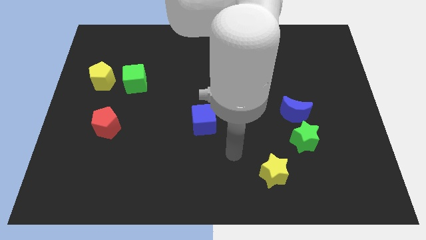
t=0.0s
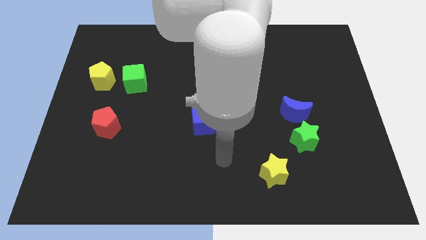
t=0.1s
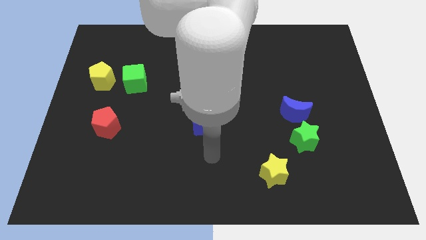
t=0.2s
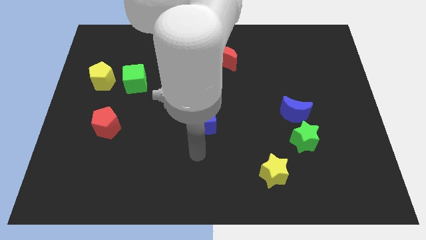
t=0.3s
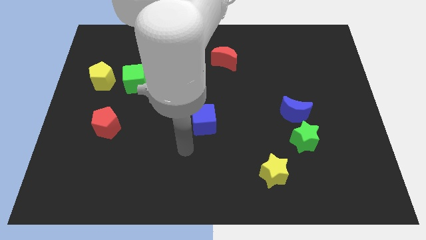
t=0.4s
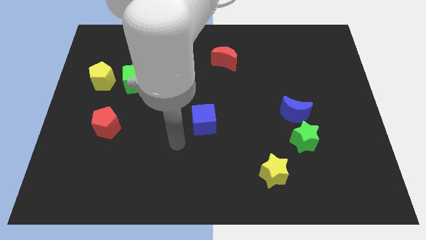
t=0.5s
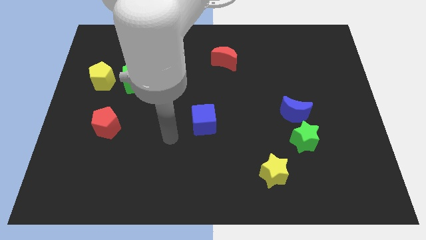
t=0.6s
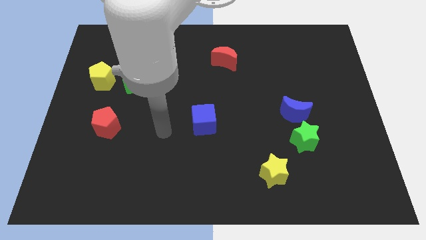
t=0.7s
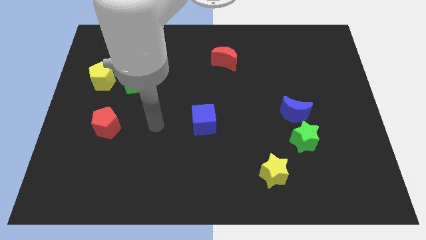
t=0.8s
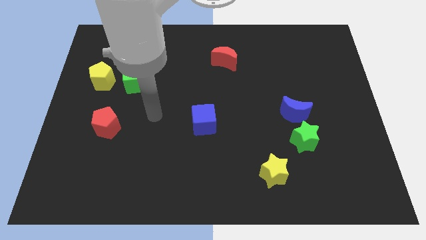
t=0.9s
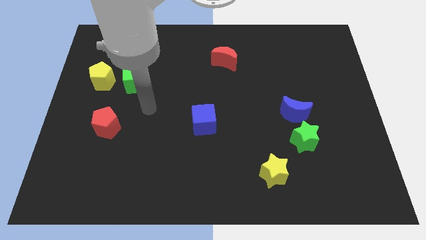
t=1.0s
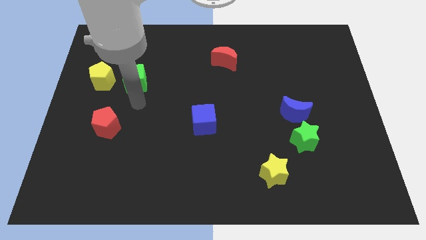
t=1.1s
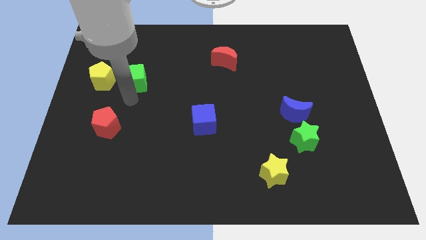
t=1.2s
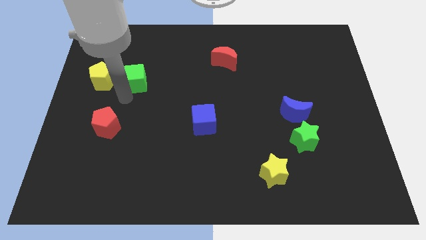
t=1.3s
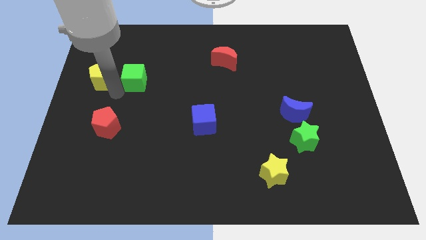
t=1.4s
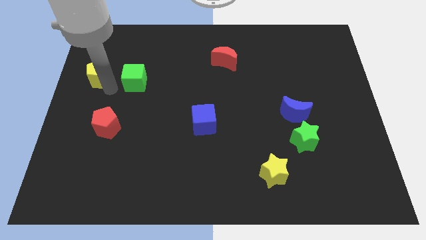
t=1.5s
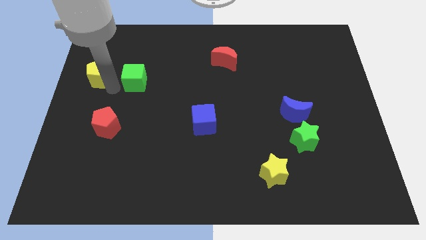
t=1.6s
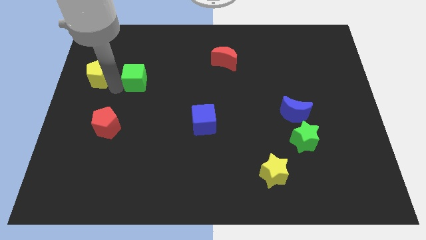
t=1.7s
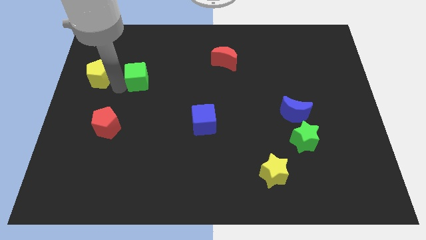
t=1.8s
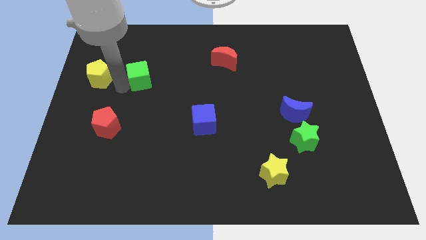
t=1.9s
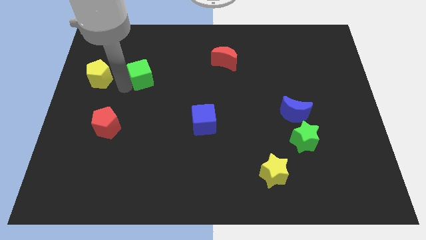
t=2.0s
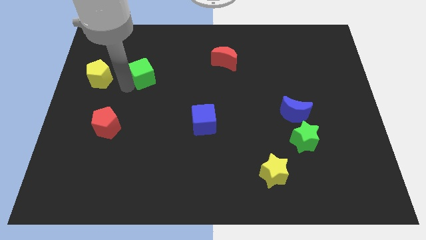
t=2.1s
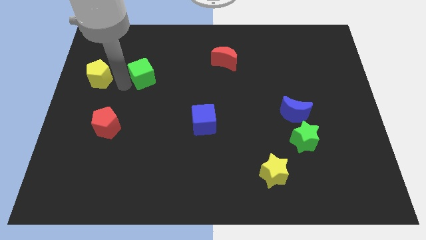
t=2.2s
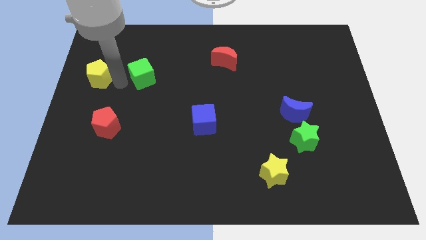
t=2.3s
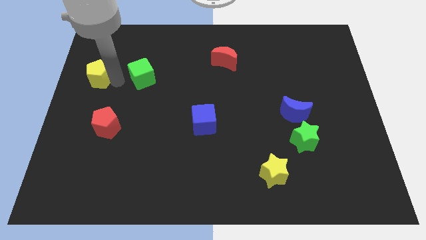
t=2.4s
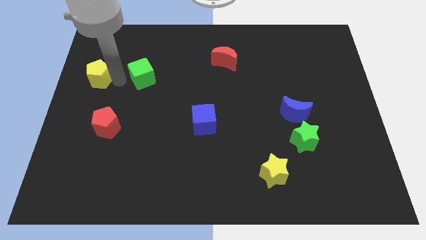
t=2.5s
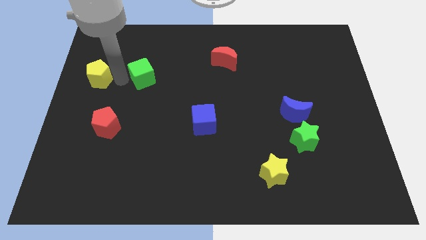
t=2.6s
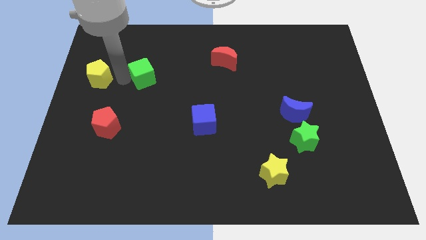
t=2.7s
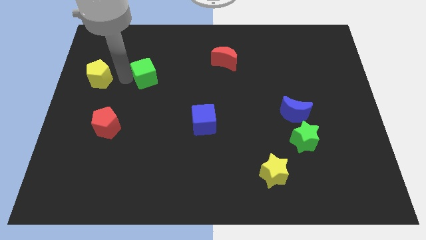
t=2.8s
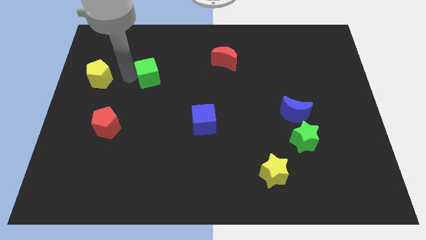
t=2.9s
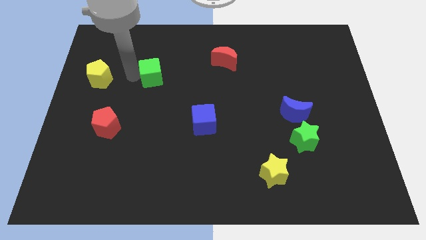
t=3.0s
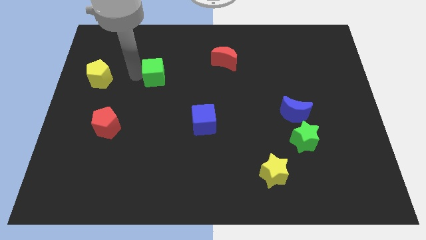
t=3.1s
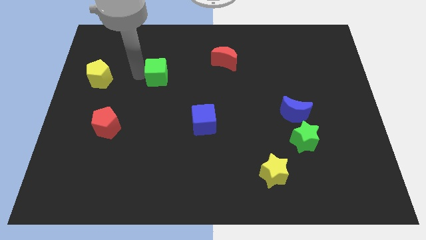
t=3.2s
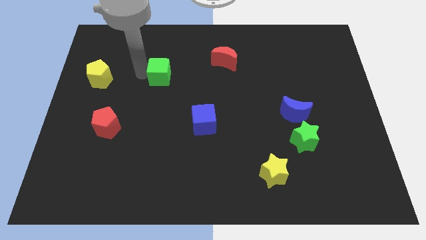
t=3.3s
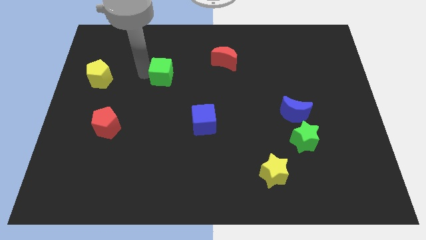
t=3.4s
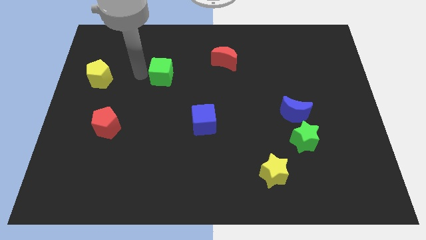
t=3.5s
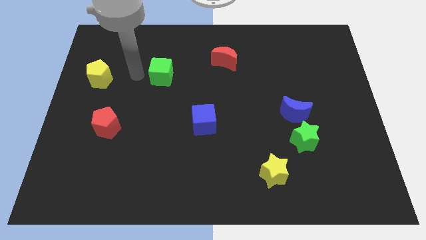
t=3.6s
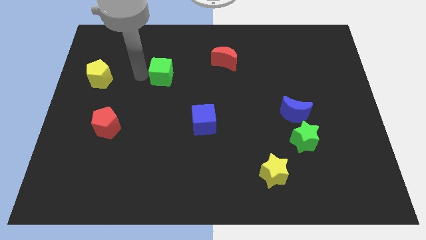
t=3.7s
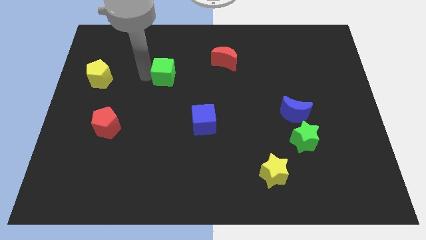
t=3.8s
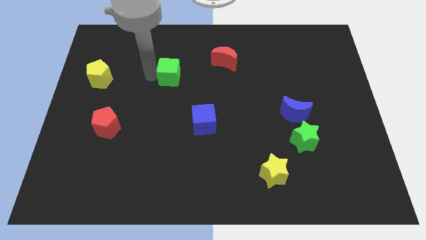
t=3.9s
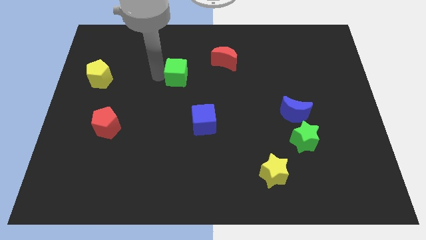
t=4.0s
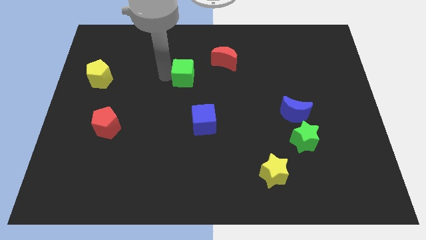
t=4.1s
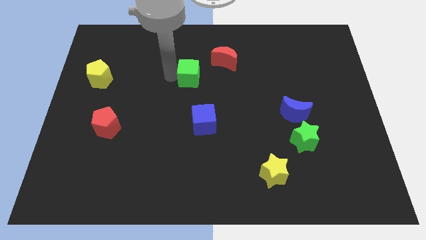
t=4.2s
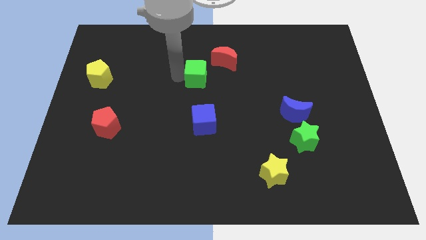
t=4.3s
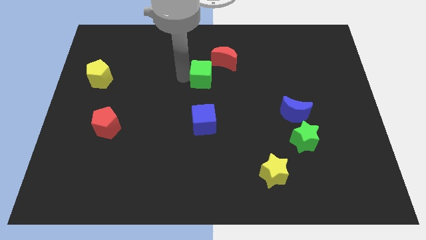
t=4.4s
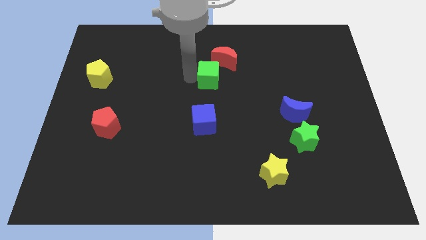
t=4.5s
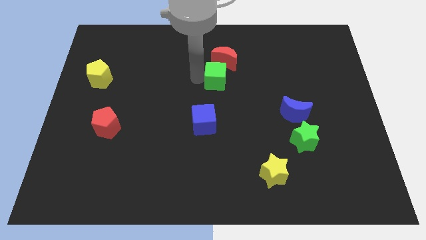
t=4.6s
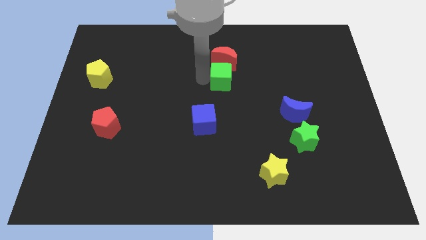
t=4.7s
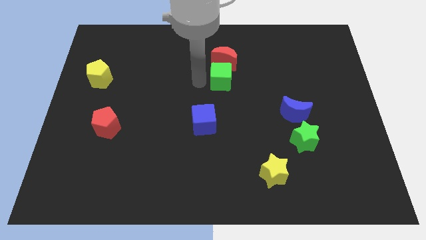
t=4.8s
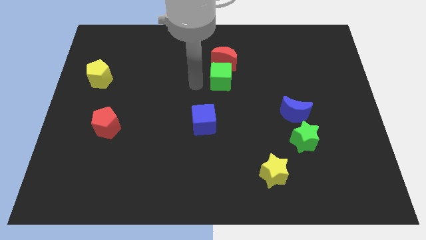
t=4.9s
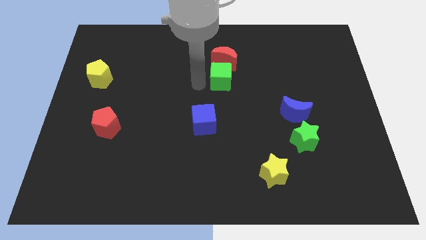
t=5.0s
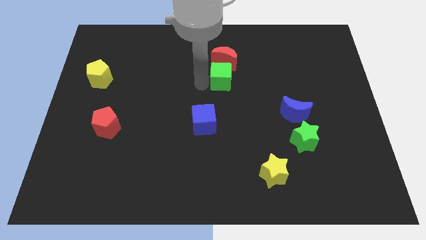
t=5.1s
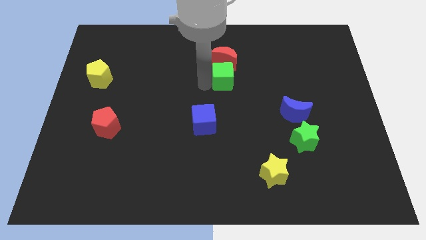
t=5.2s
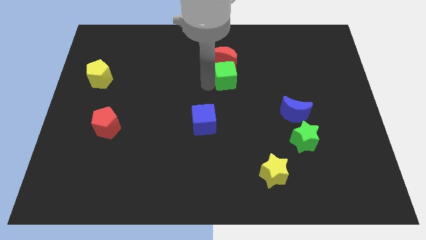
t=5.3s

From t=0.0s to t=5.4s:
slide the green cube to the bottom right of the red moon

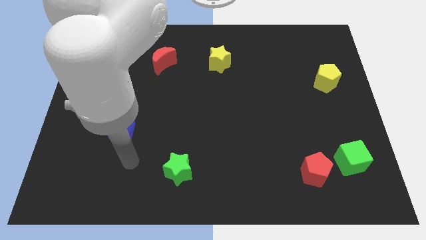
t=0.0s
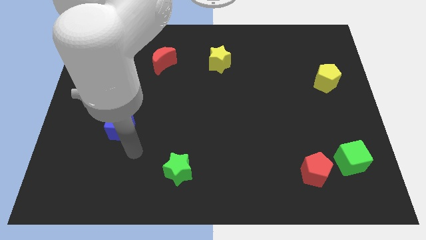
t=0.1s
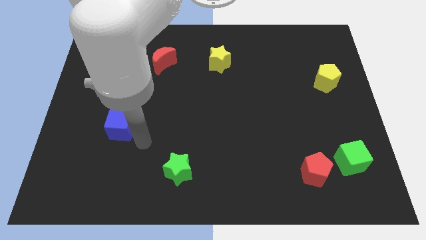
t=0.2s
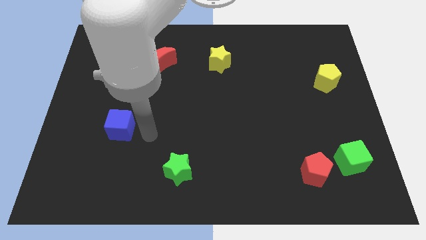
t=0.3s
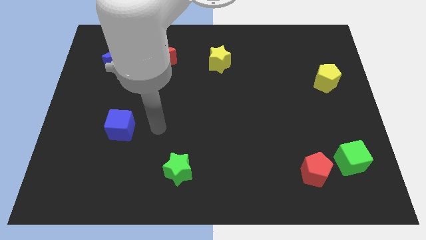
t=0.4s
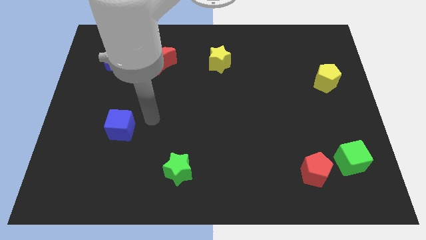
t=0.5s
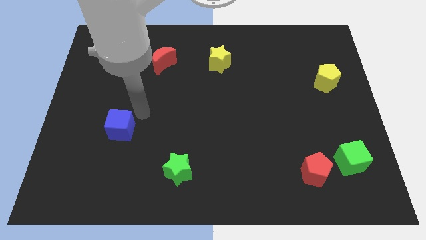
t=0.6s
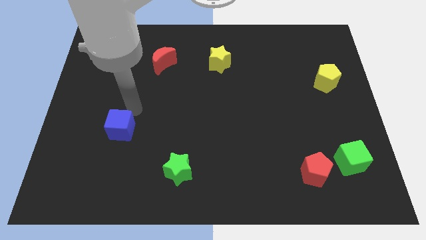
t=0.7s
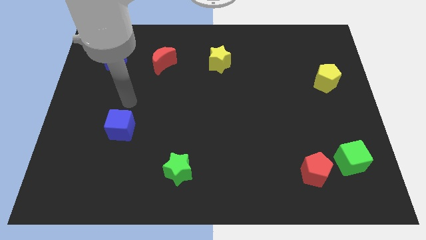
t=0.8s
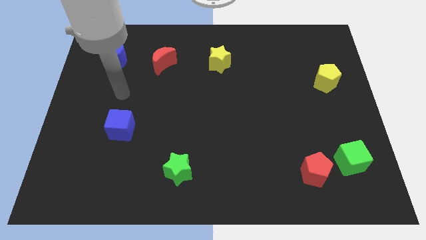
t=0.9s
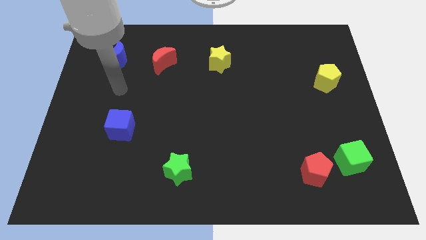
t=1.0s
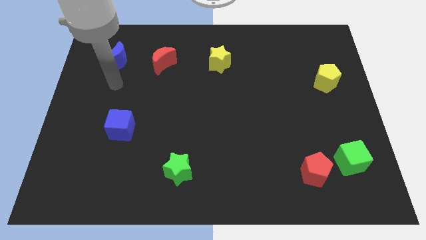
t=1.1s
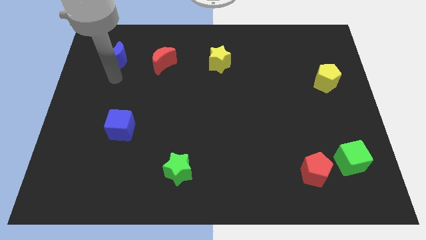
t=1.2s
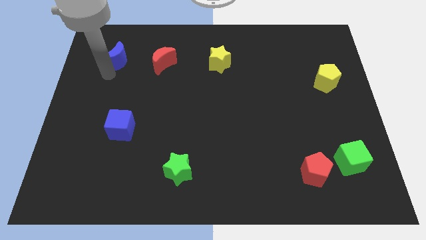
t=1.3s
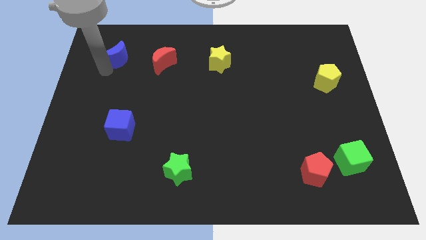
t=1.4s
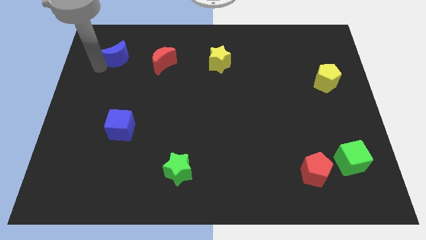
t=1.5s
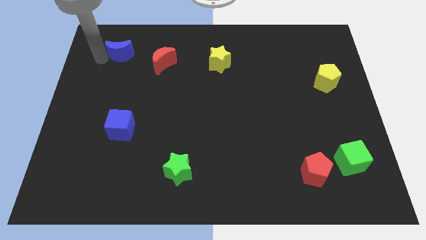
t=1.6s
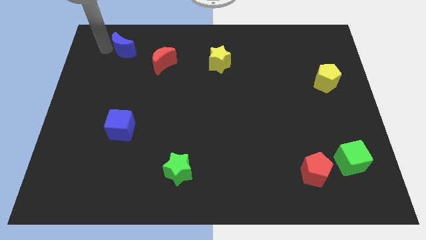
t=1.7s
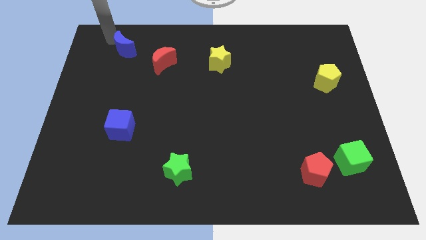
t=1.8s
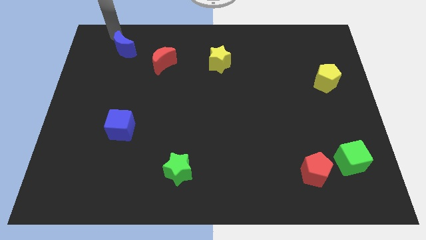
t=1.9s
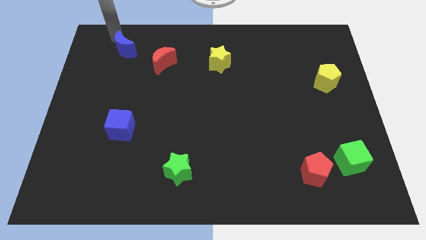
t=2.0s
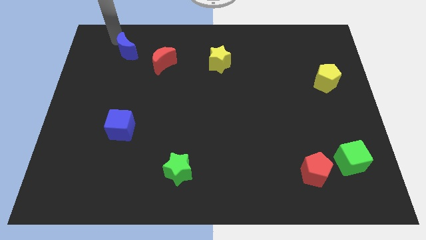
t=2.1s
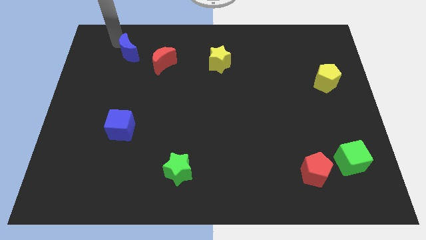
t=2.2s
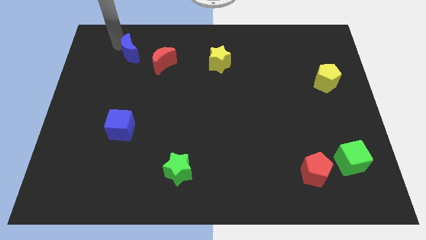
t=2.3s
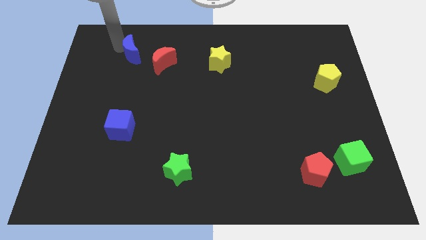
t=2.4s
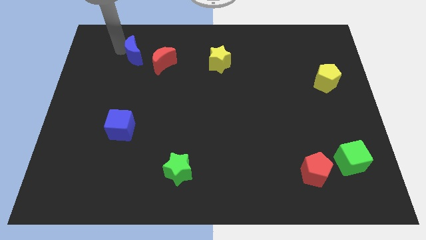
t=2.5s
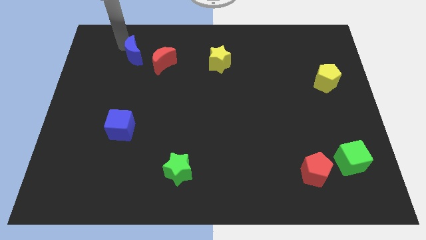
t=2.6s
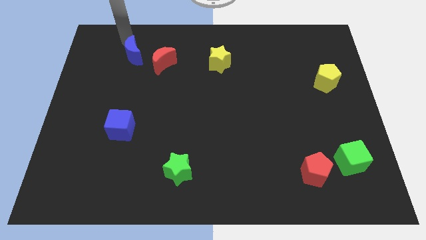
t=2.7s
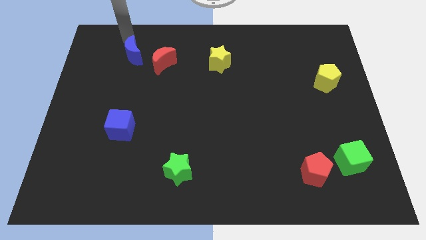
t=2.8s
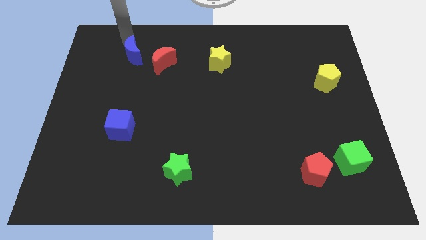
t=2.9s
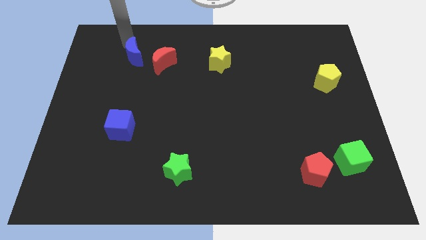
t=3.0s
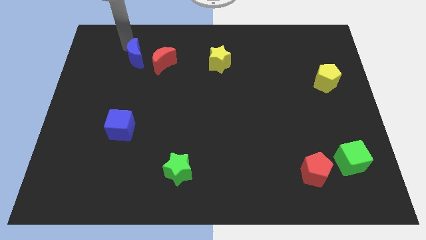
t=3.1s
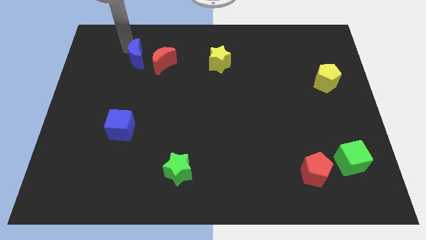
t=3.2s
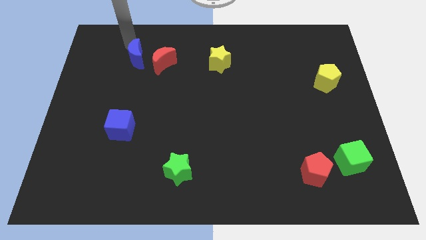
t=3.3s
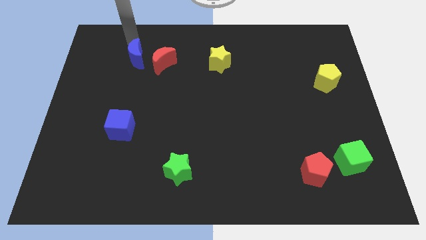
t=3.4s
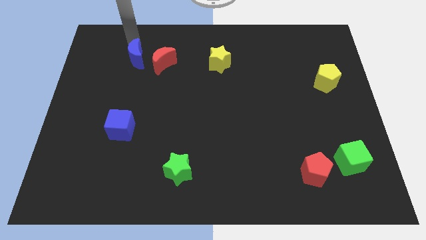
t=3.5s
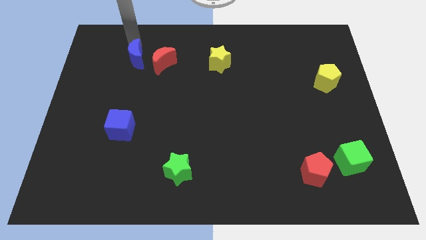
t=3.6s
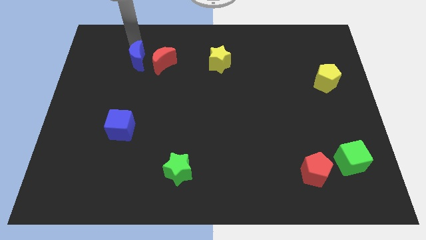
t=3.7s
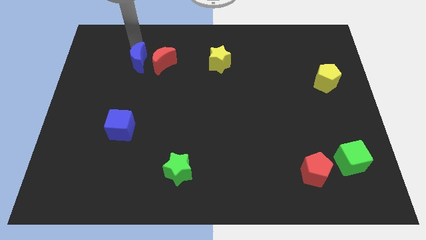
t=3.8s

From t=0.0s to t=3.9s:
slide the blue moon diagonally down and to the left of the red moon
